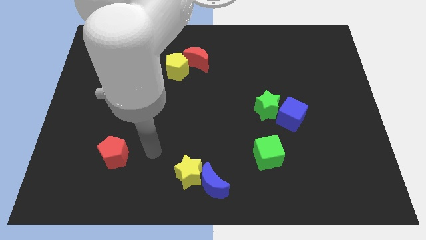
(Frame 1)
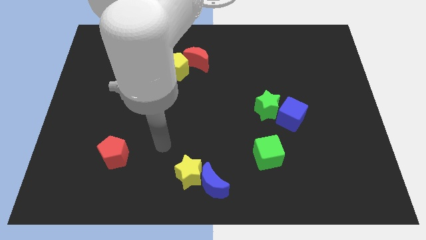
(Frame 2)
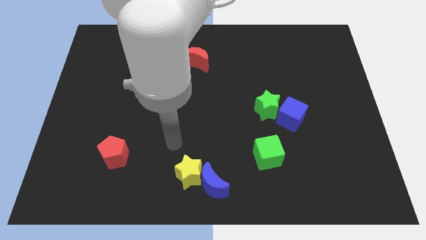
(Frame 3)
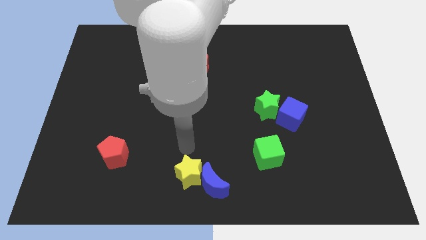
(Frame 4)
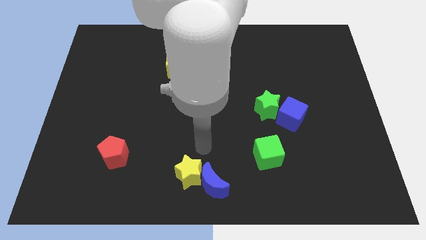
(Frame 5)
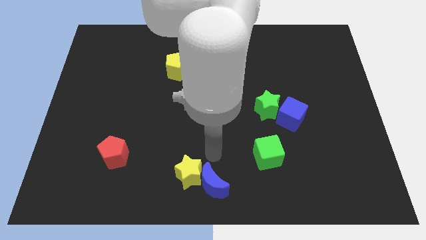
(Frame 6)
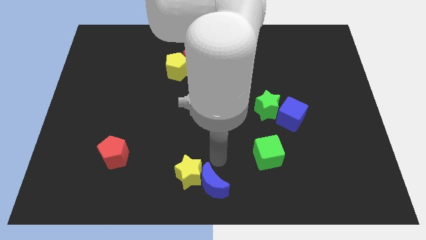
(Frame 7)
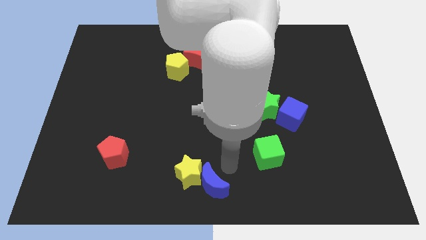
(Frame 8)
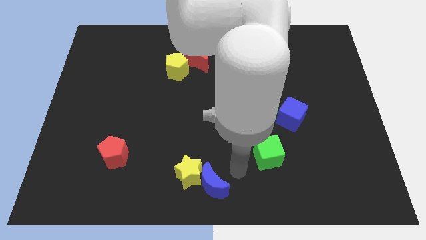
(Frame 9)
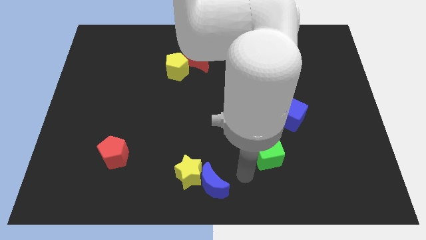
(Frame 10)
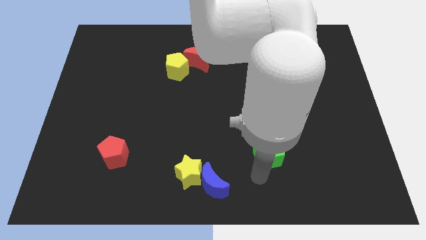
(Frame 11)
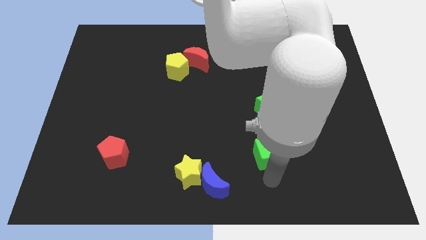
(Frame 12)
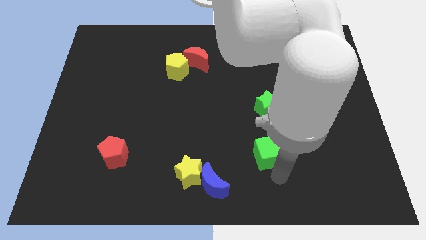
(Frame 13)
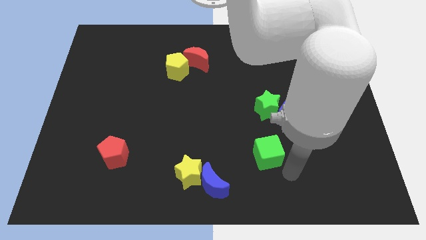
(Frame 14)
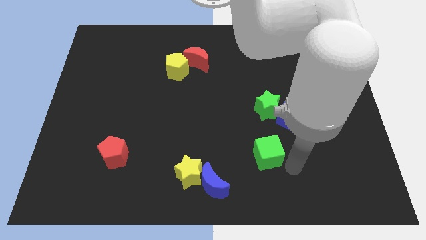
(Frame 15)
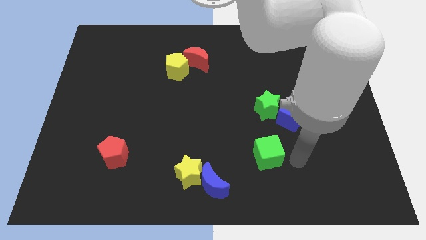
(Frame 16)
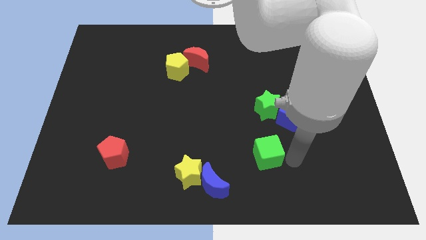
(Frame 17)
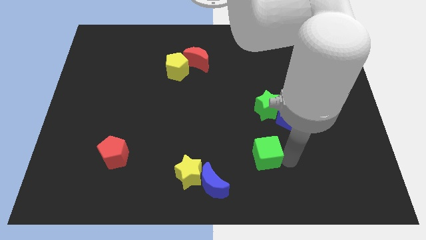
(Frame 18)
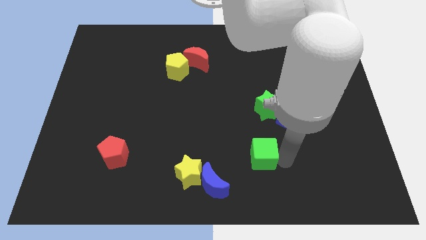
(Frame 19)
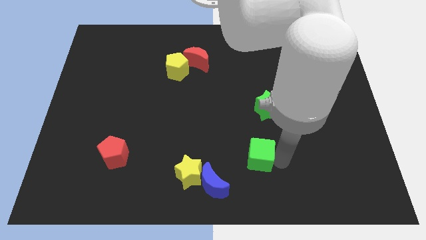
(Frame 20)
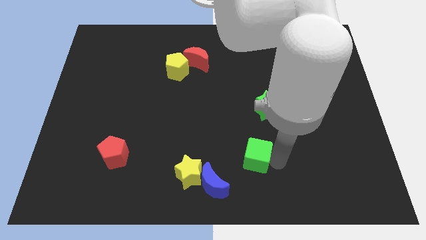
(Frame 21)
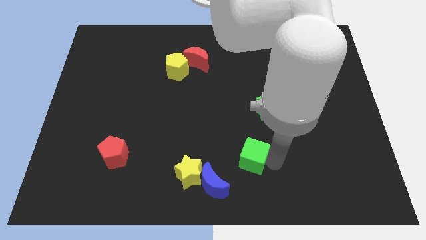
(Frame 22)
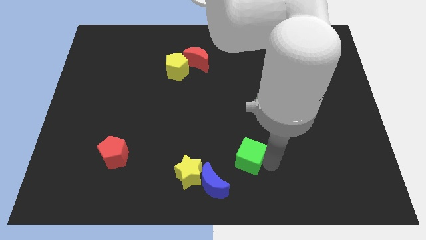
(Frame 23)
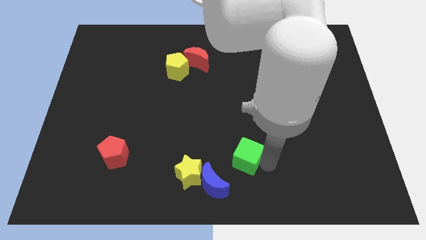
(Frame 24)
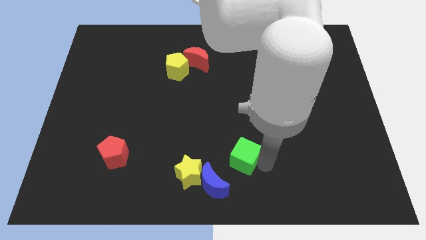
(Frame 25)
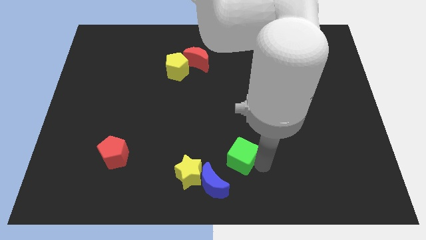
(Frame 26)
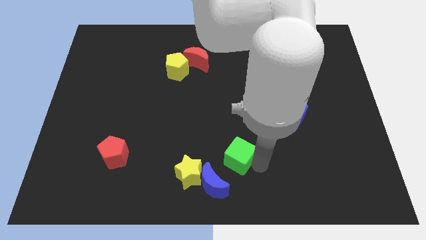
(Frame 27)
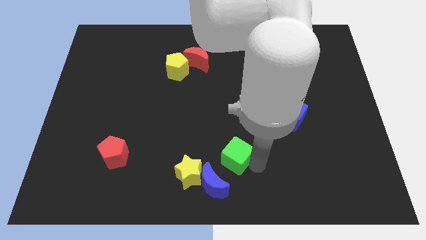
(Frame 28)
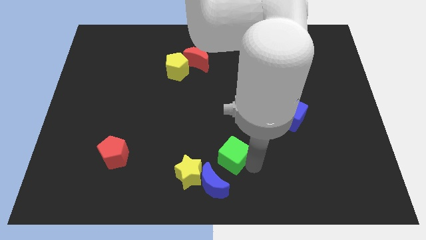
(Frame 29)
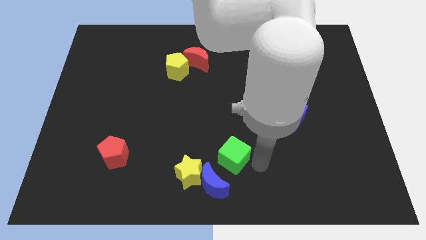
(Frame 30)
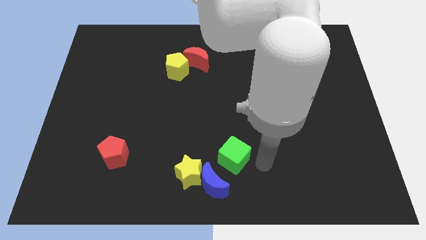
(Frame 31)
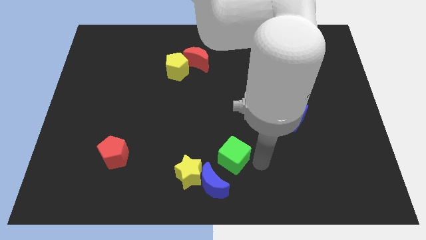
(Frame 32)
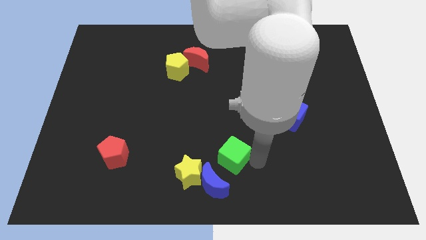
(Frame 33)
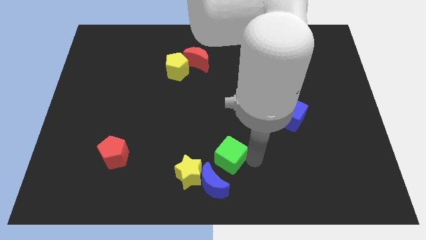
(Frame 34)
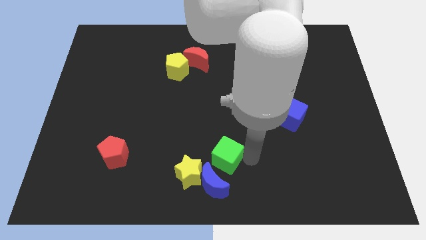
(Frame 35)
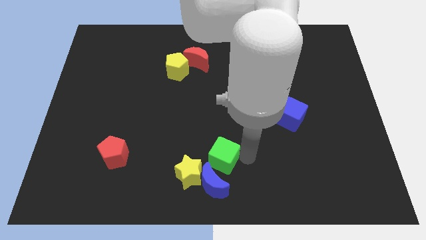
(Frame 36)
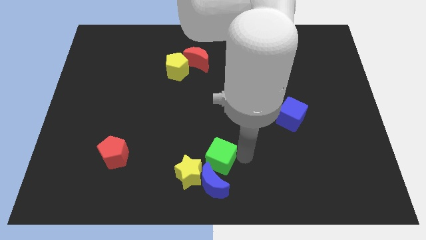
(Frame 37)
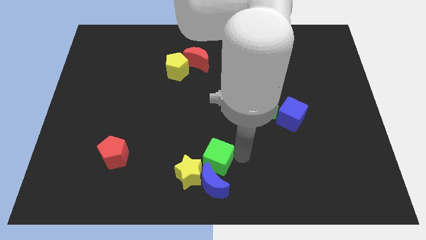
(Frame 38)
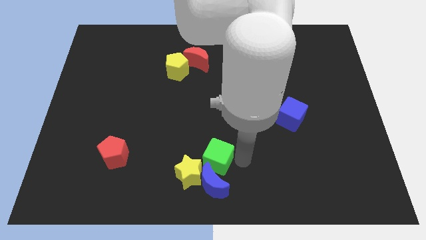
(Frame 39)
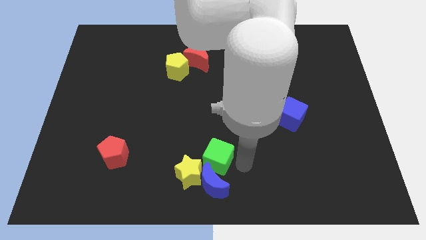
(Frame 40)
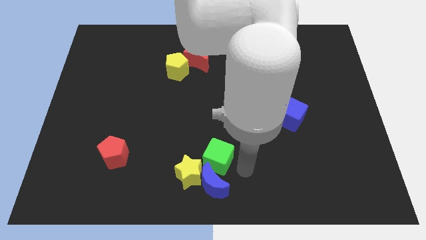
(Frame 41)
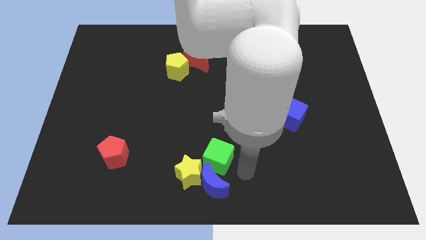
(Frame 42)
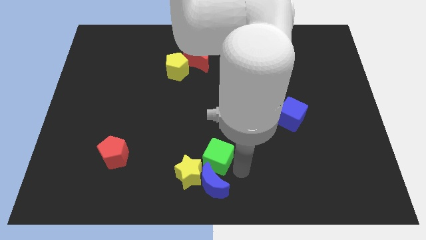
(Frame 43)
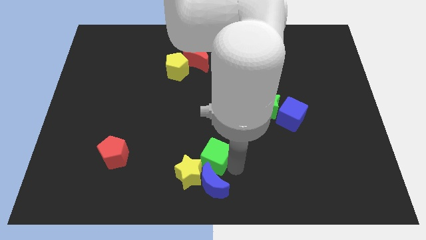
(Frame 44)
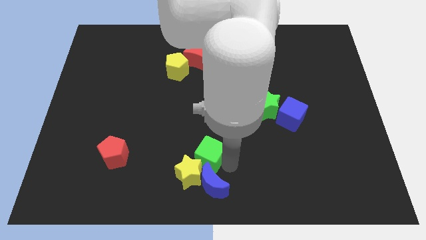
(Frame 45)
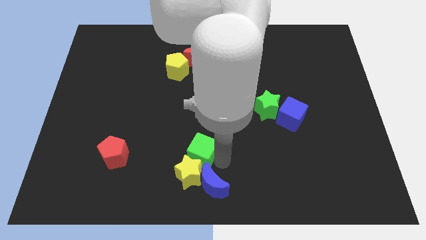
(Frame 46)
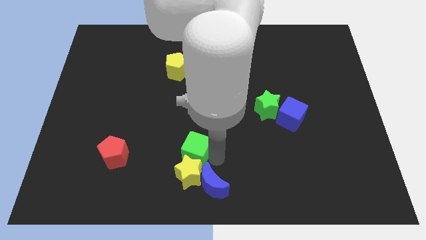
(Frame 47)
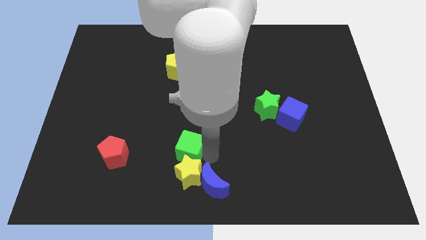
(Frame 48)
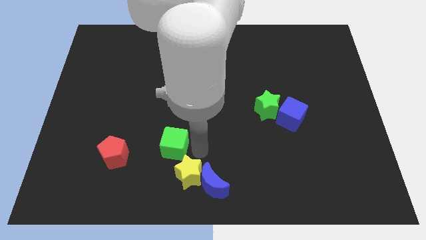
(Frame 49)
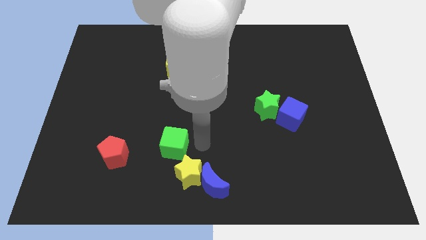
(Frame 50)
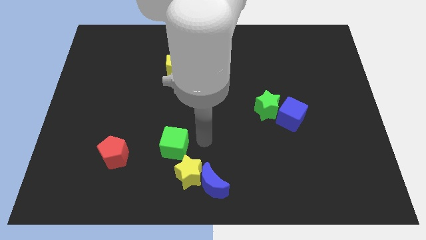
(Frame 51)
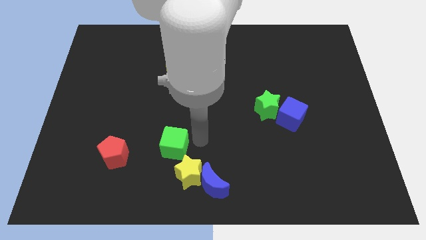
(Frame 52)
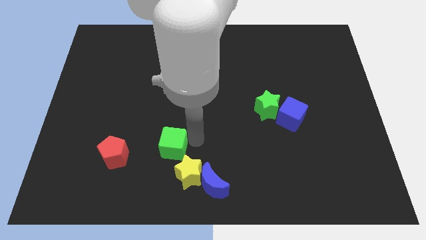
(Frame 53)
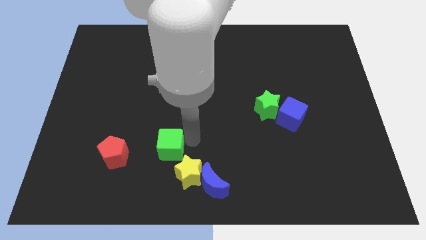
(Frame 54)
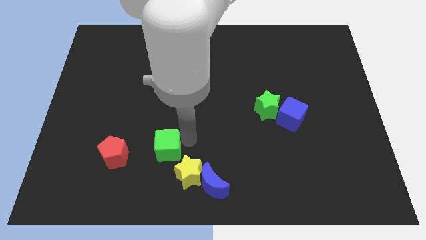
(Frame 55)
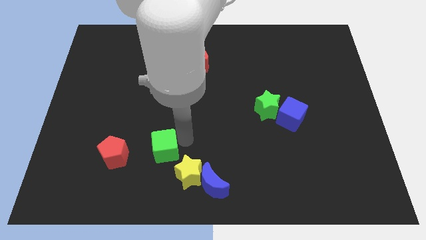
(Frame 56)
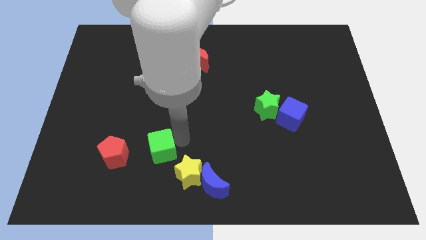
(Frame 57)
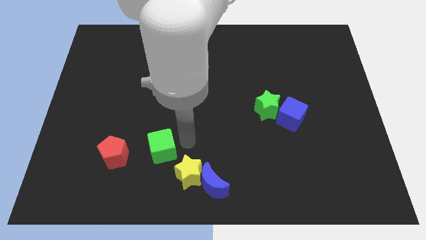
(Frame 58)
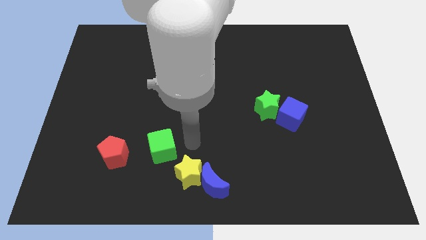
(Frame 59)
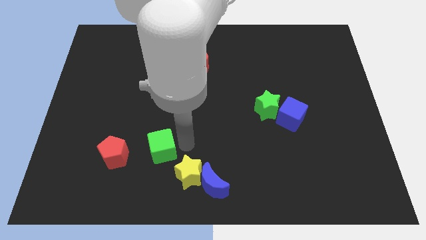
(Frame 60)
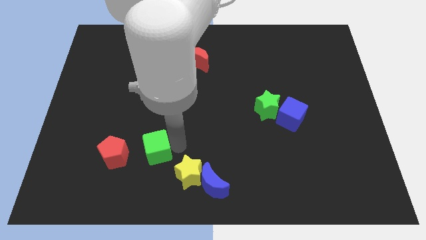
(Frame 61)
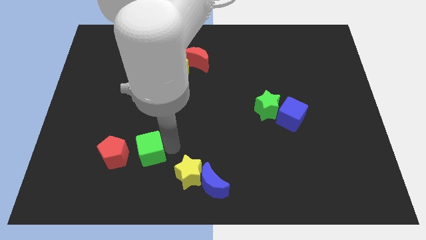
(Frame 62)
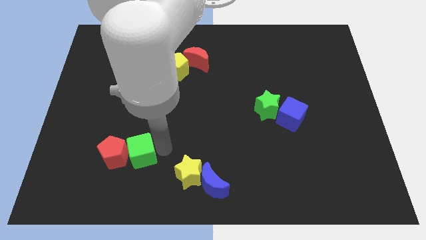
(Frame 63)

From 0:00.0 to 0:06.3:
move the green cube towards the red pentagon

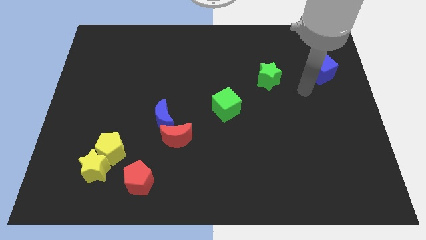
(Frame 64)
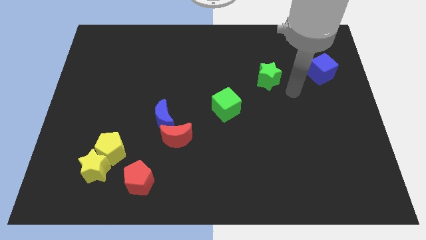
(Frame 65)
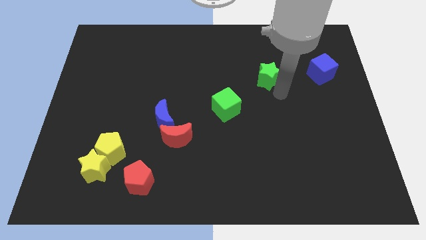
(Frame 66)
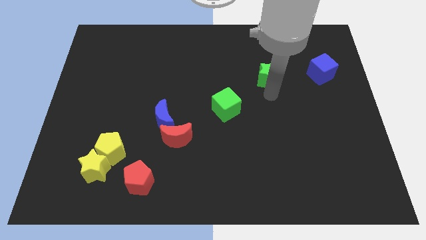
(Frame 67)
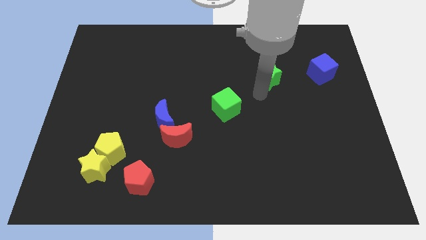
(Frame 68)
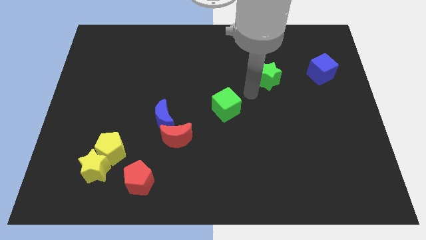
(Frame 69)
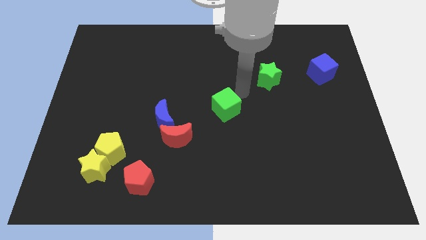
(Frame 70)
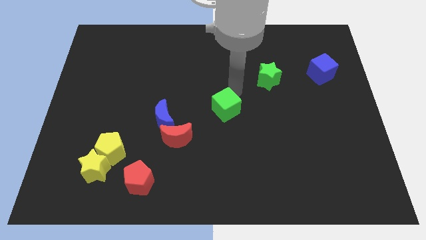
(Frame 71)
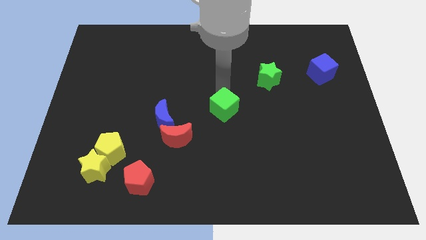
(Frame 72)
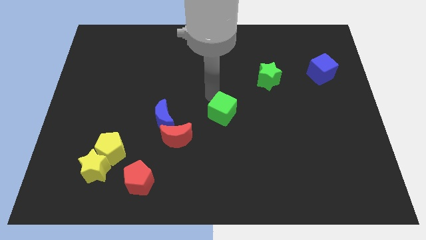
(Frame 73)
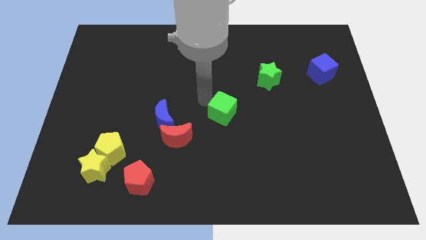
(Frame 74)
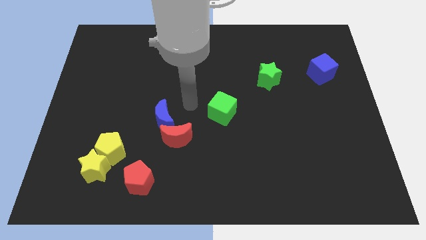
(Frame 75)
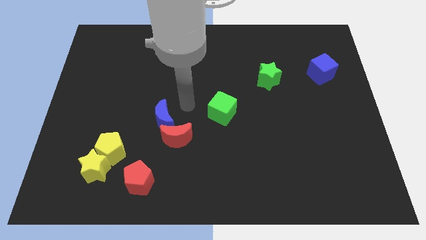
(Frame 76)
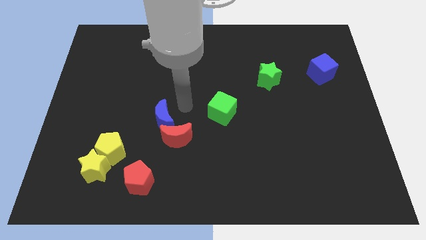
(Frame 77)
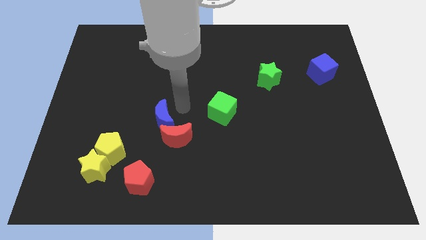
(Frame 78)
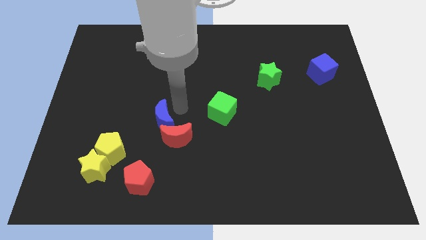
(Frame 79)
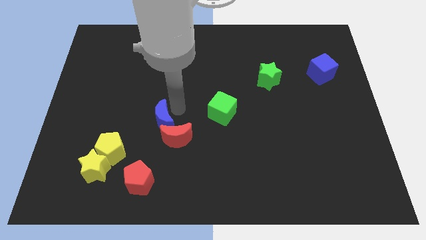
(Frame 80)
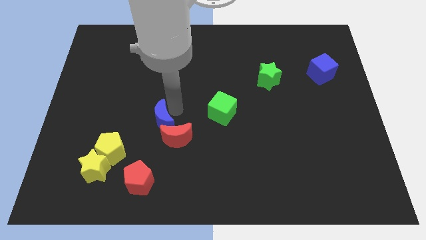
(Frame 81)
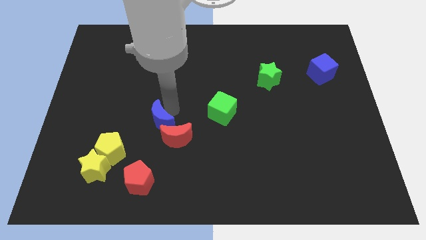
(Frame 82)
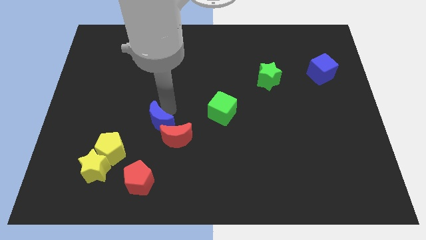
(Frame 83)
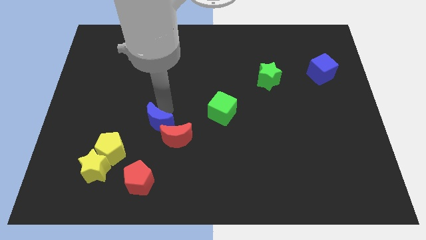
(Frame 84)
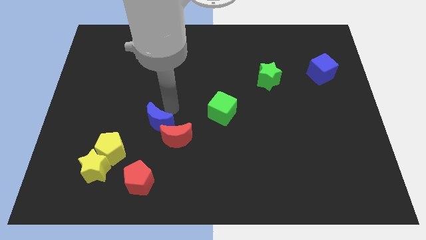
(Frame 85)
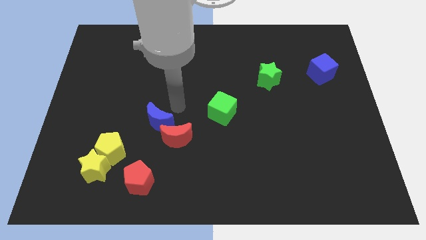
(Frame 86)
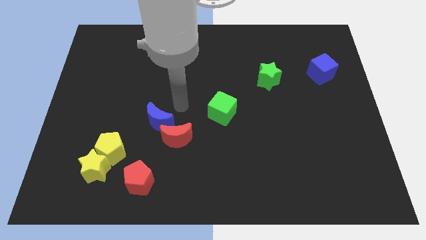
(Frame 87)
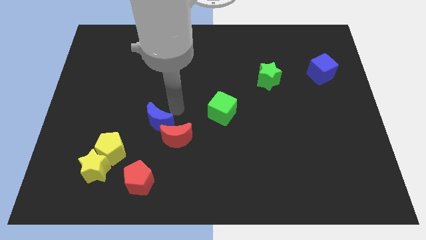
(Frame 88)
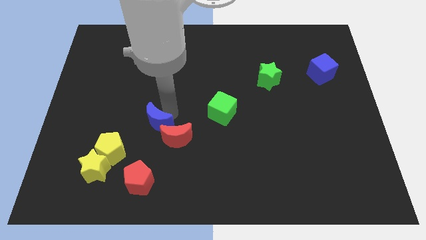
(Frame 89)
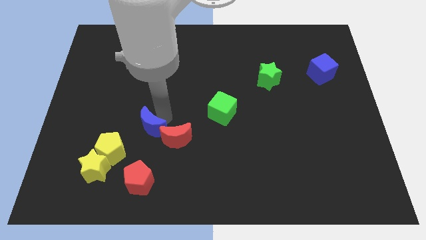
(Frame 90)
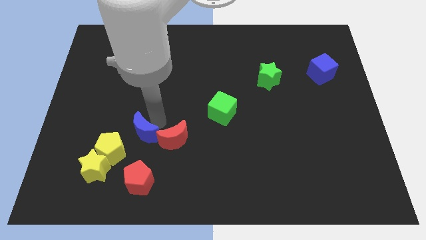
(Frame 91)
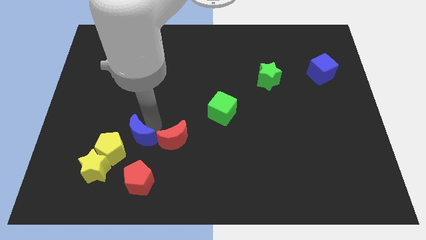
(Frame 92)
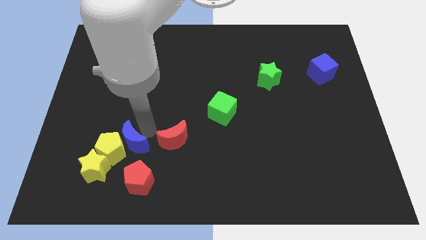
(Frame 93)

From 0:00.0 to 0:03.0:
move the blue moon next to the yellow pentagon
